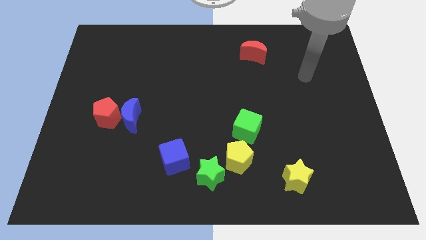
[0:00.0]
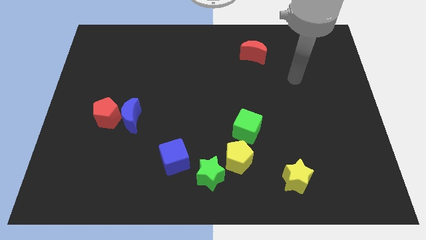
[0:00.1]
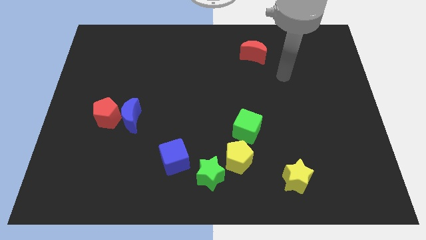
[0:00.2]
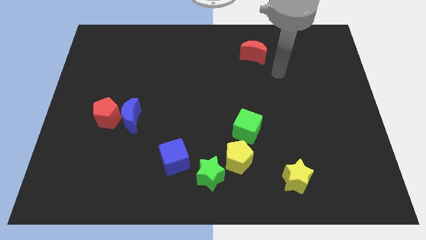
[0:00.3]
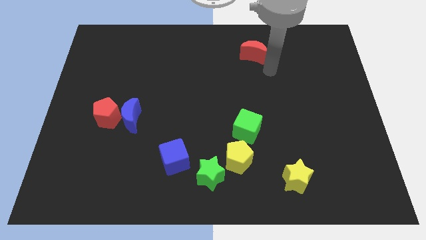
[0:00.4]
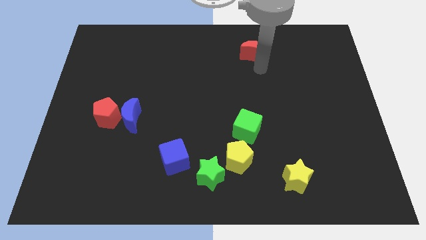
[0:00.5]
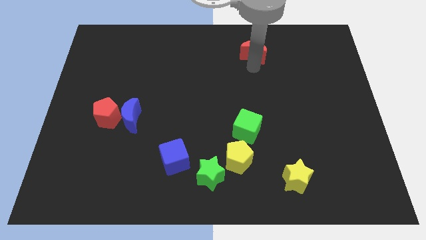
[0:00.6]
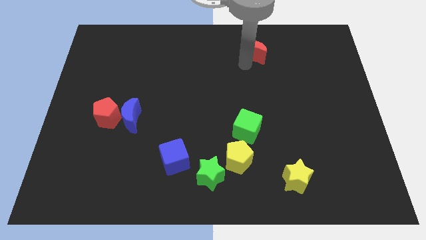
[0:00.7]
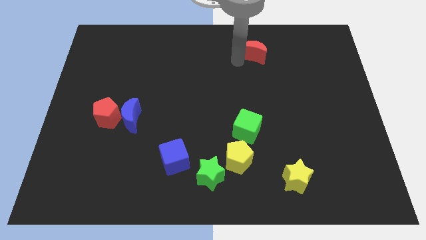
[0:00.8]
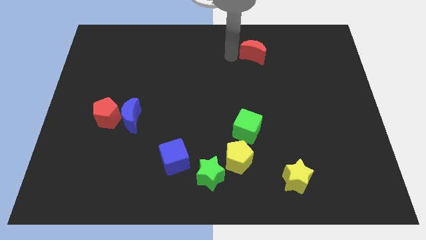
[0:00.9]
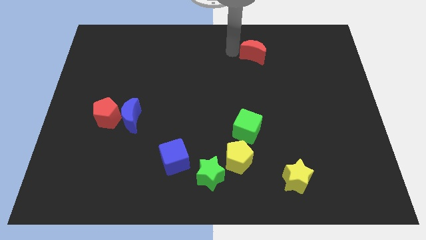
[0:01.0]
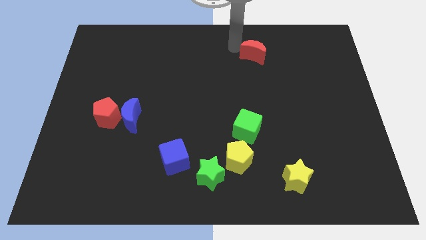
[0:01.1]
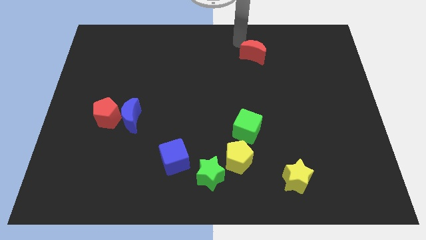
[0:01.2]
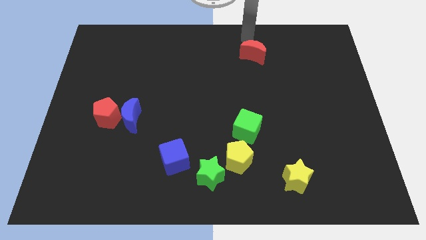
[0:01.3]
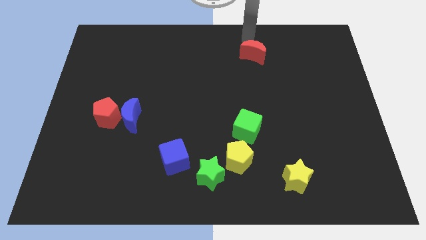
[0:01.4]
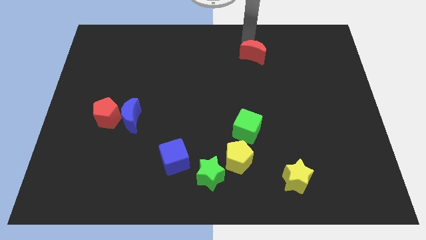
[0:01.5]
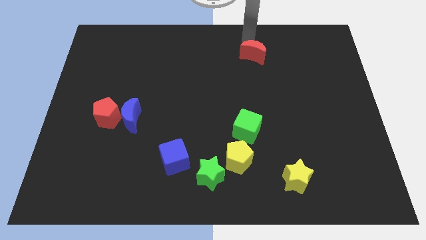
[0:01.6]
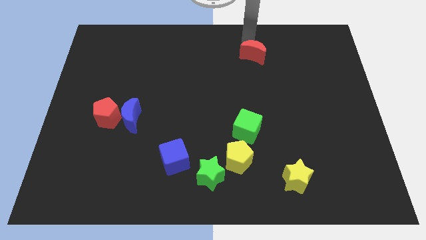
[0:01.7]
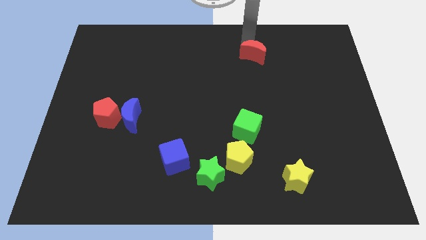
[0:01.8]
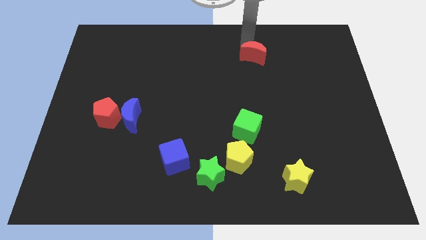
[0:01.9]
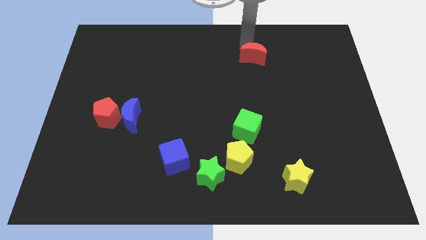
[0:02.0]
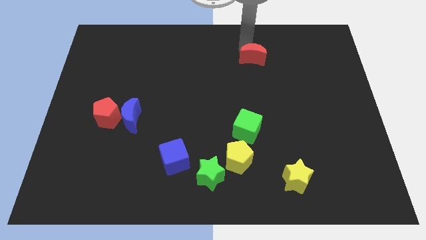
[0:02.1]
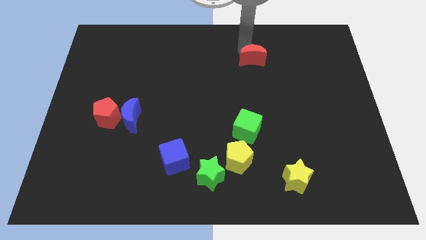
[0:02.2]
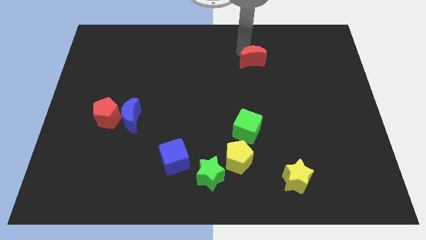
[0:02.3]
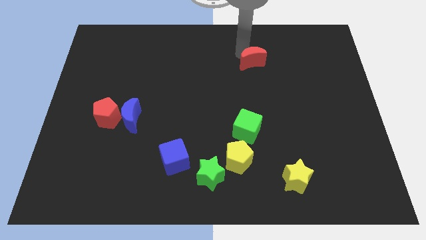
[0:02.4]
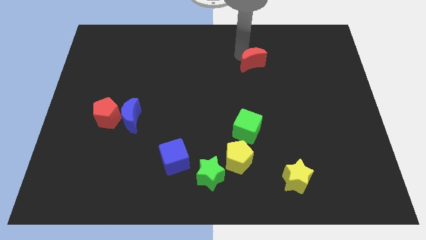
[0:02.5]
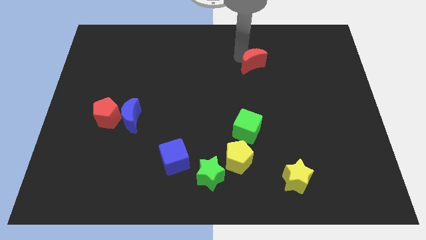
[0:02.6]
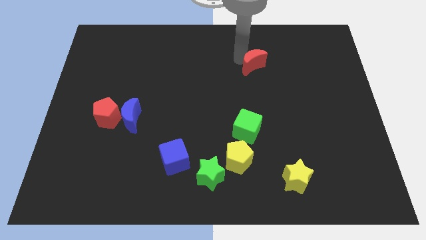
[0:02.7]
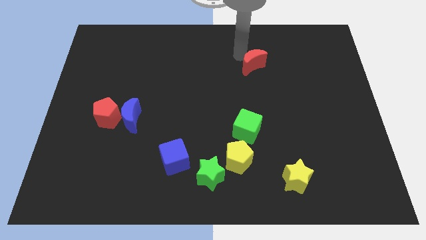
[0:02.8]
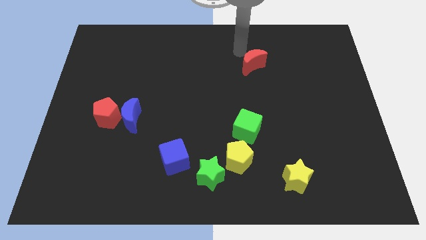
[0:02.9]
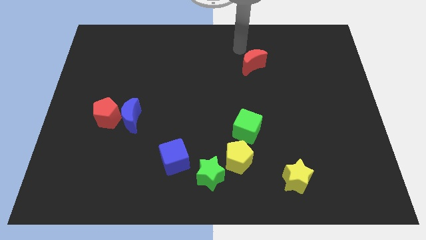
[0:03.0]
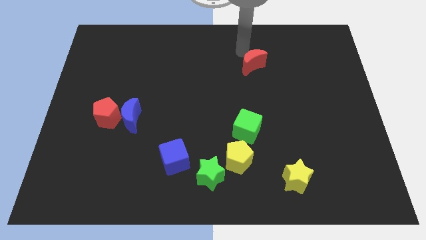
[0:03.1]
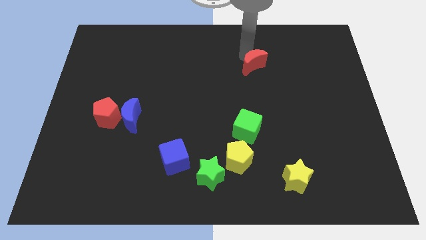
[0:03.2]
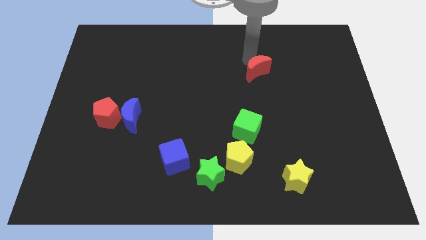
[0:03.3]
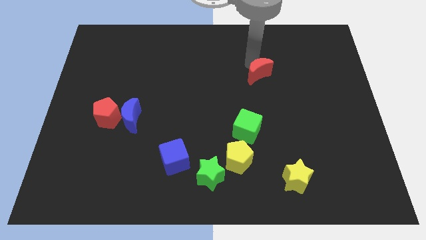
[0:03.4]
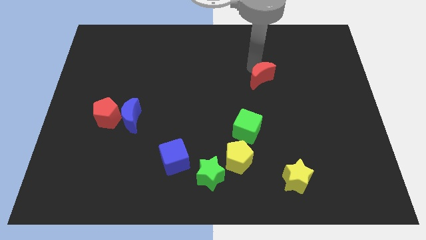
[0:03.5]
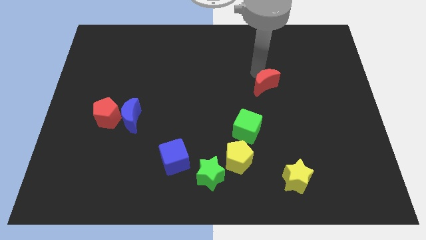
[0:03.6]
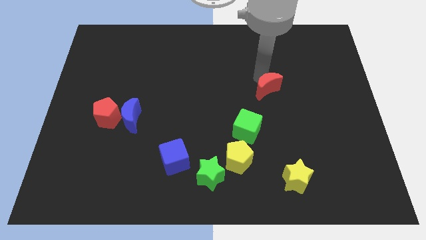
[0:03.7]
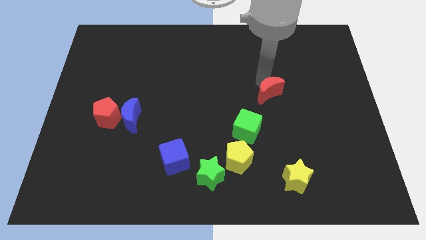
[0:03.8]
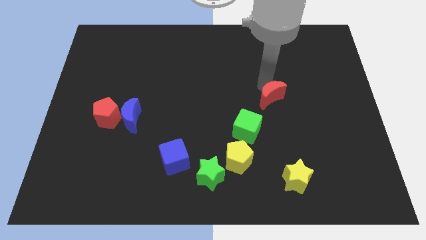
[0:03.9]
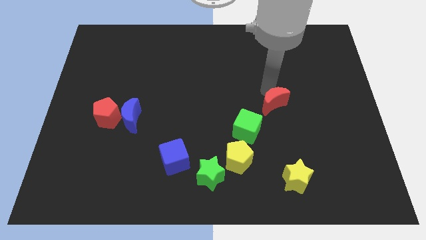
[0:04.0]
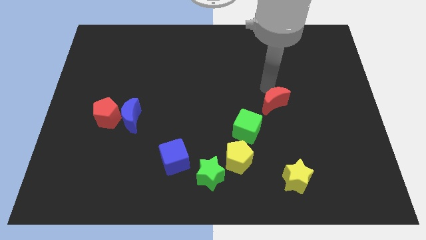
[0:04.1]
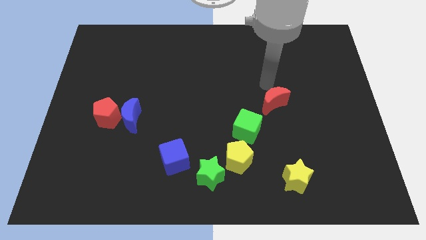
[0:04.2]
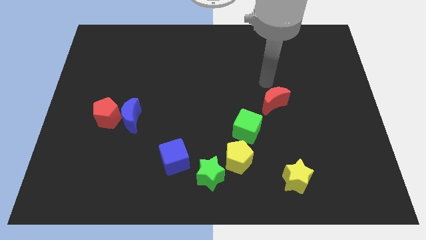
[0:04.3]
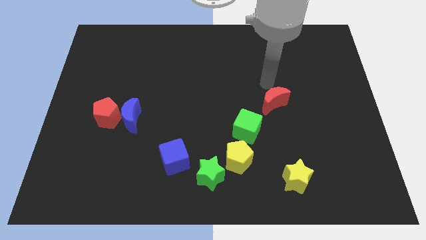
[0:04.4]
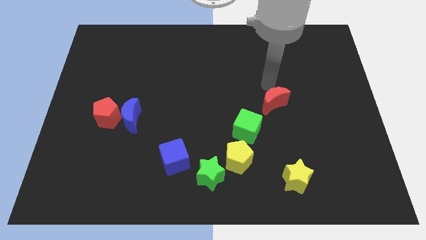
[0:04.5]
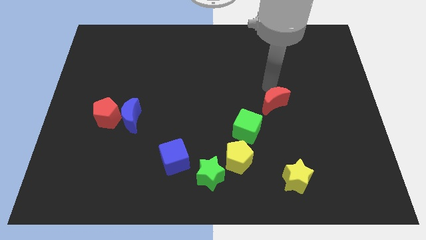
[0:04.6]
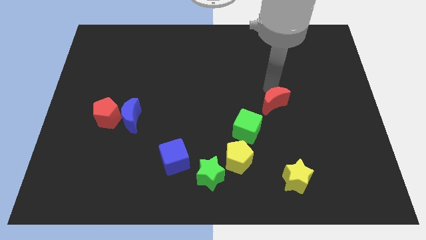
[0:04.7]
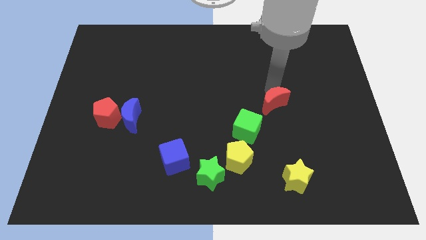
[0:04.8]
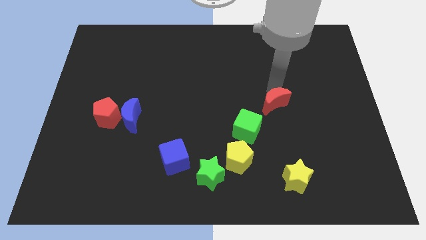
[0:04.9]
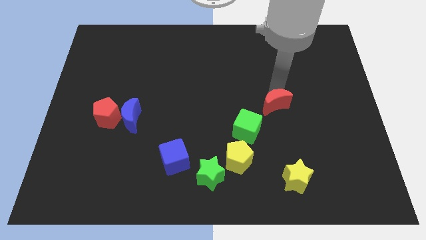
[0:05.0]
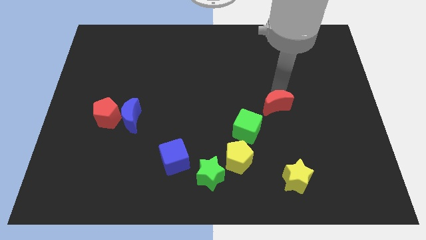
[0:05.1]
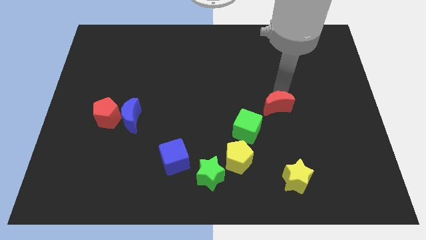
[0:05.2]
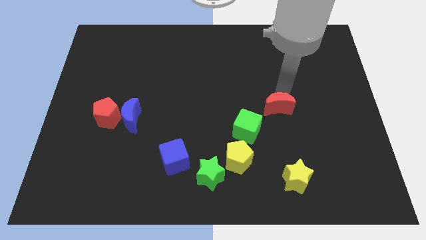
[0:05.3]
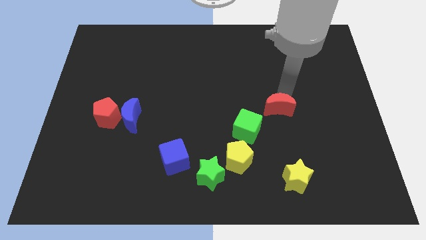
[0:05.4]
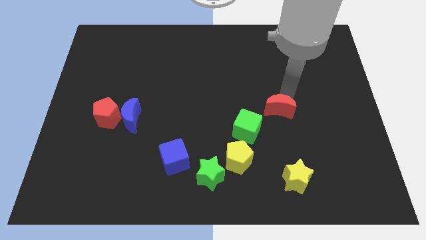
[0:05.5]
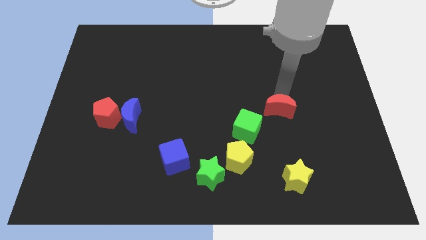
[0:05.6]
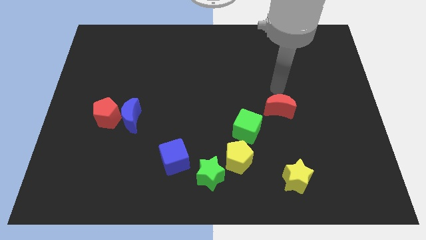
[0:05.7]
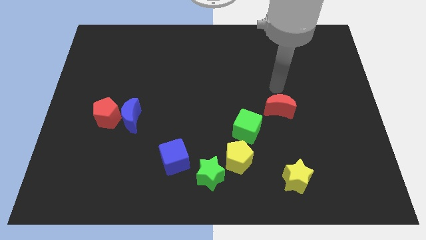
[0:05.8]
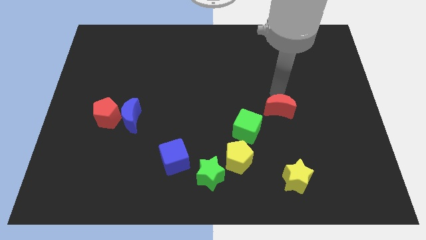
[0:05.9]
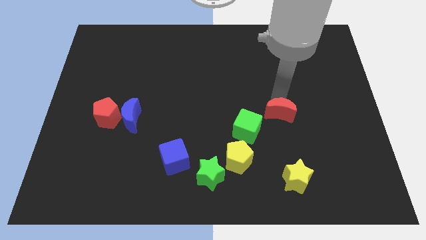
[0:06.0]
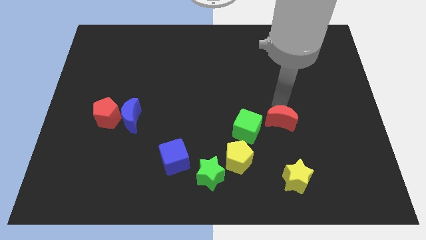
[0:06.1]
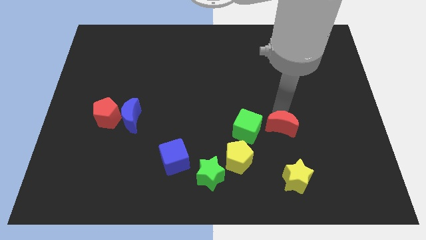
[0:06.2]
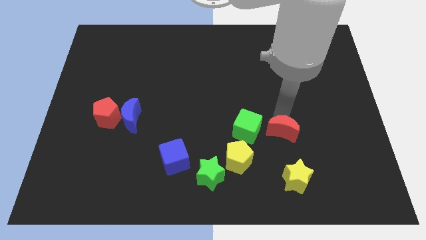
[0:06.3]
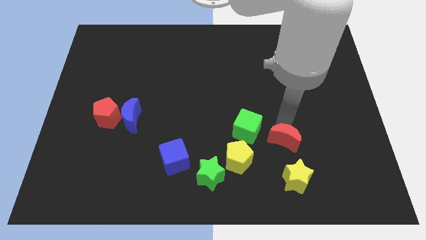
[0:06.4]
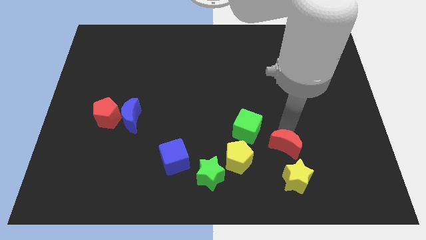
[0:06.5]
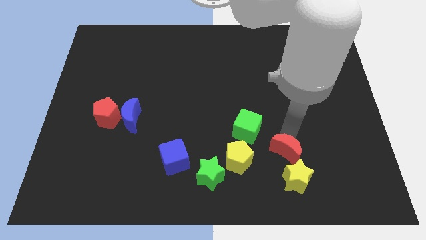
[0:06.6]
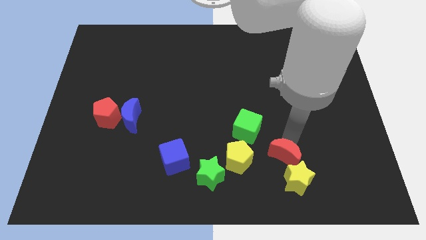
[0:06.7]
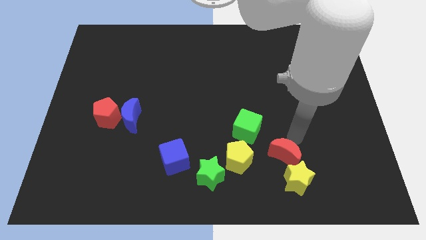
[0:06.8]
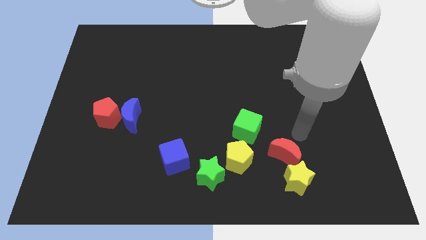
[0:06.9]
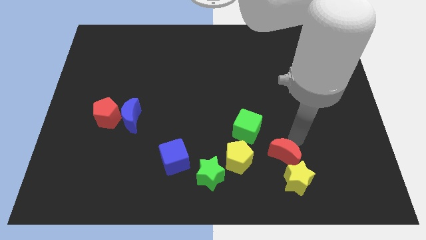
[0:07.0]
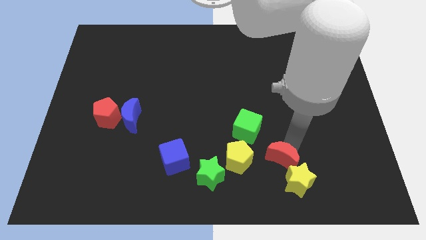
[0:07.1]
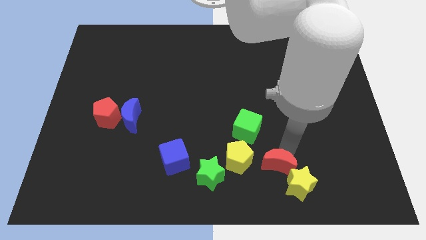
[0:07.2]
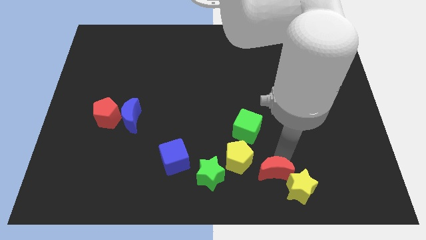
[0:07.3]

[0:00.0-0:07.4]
slide the red moon to the bottom right side of the yellow pentagon
